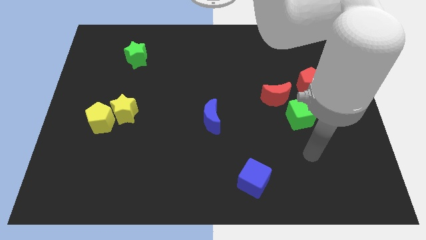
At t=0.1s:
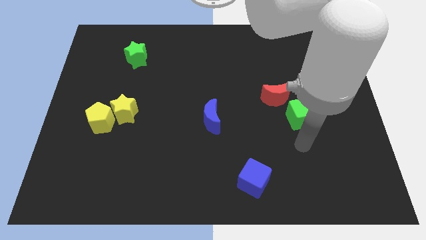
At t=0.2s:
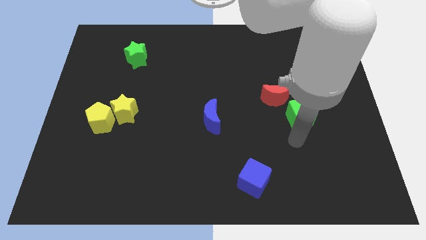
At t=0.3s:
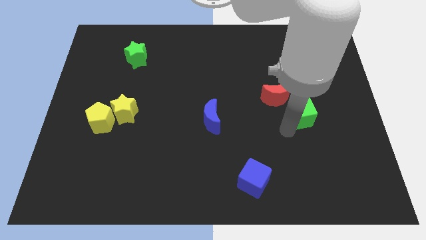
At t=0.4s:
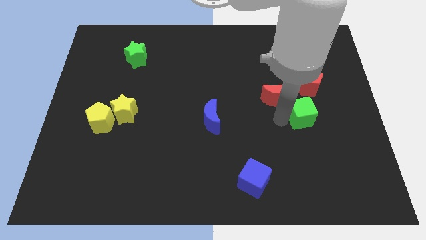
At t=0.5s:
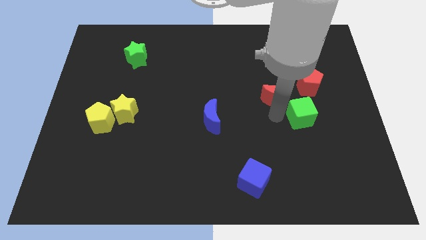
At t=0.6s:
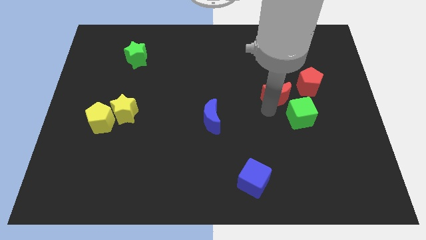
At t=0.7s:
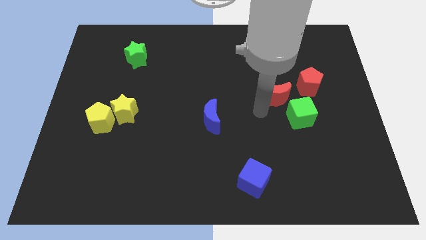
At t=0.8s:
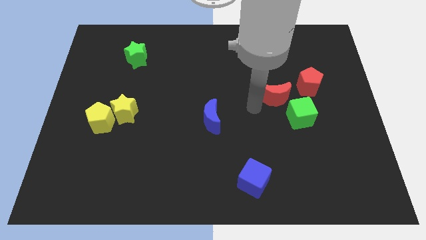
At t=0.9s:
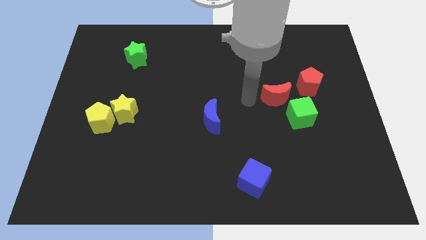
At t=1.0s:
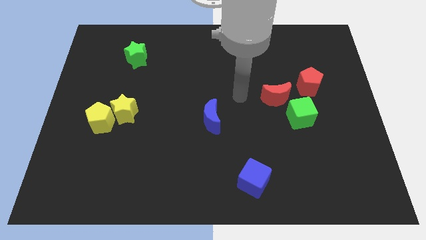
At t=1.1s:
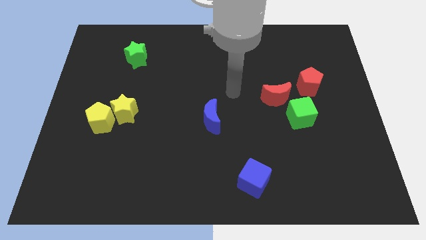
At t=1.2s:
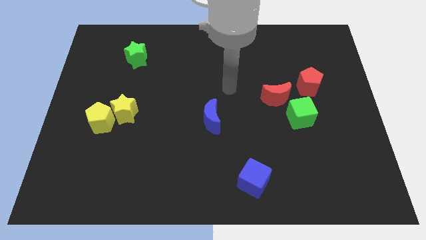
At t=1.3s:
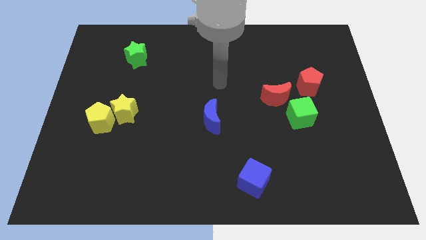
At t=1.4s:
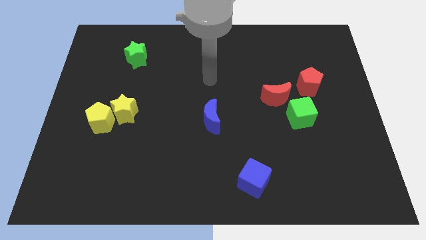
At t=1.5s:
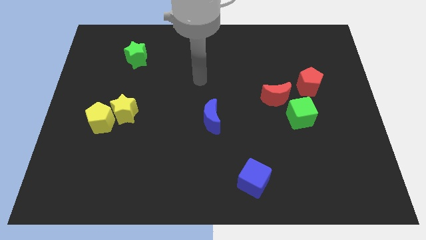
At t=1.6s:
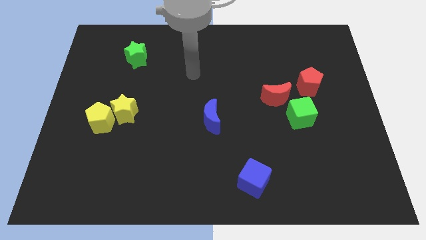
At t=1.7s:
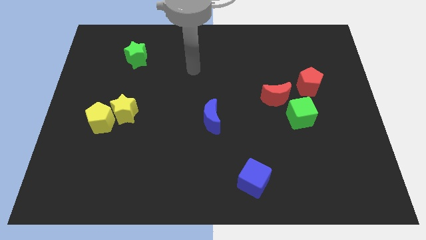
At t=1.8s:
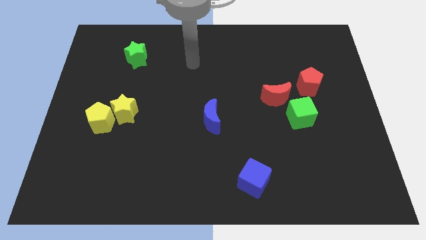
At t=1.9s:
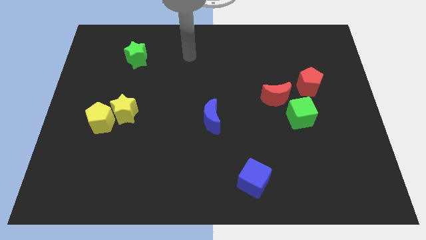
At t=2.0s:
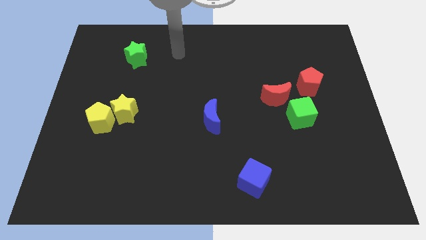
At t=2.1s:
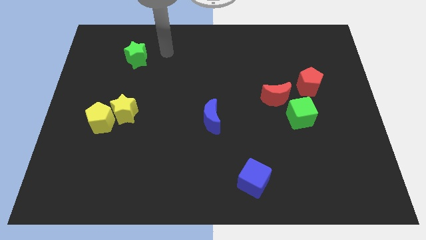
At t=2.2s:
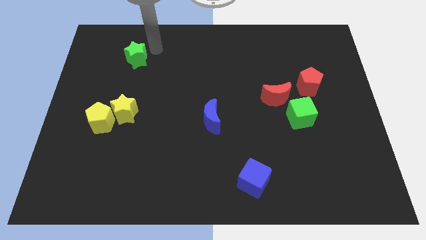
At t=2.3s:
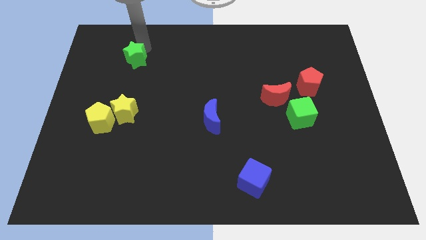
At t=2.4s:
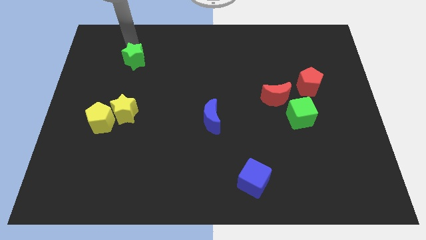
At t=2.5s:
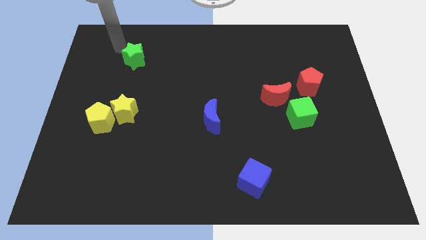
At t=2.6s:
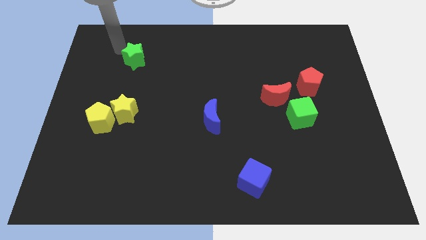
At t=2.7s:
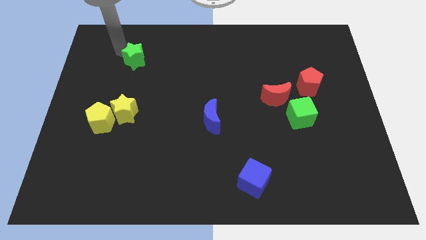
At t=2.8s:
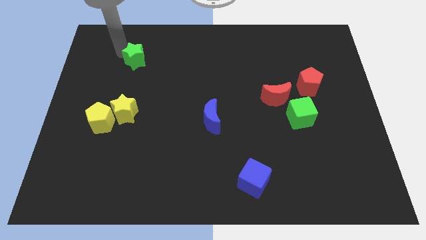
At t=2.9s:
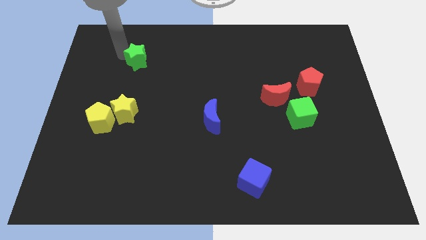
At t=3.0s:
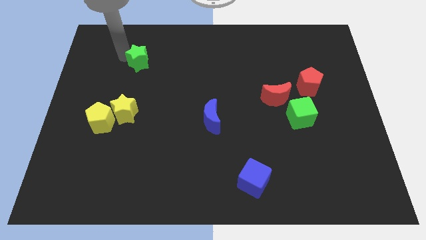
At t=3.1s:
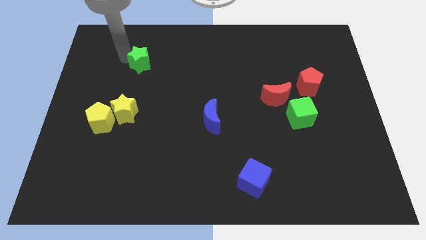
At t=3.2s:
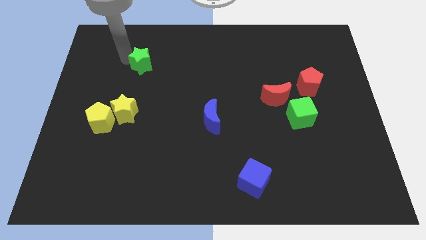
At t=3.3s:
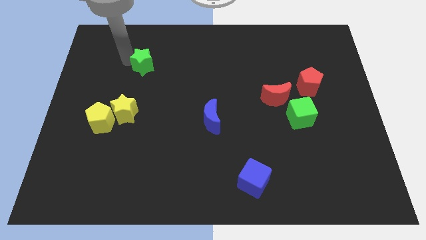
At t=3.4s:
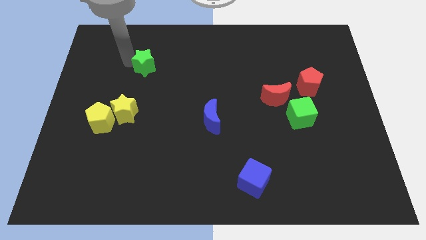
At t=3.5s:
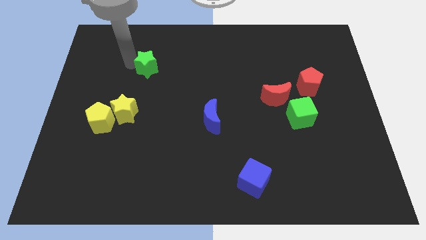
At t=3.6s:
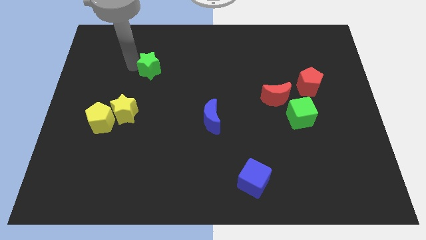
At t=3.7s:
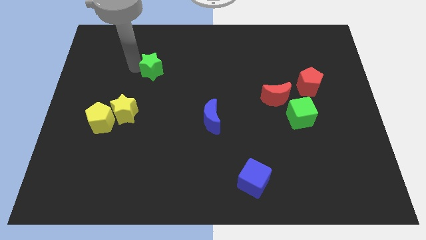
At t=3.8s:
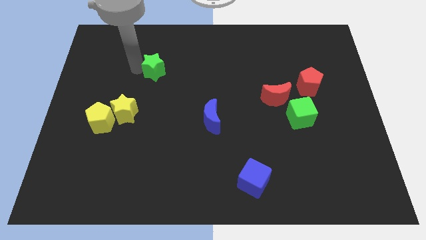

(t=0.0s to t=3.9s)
move the green star down and right a little

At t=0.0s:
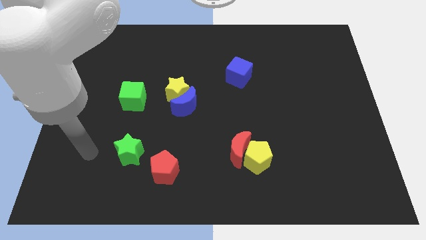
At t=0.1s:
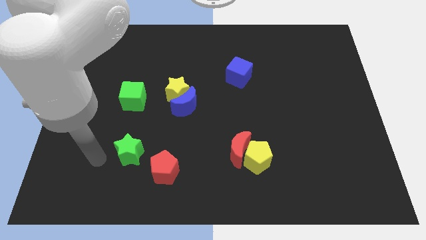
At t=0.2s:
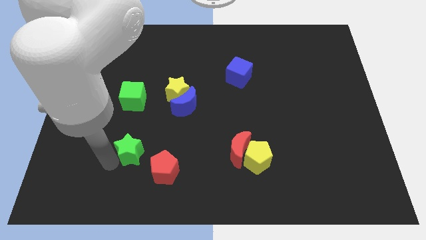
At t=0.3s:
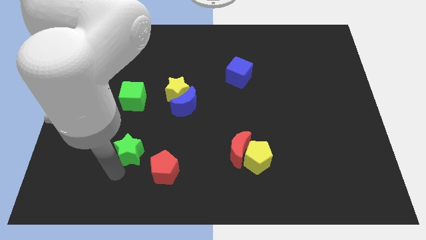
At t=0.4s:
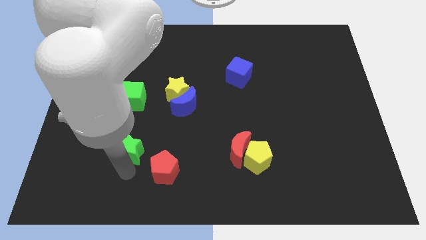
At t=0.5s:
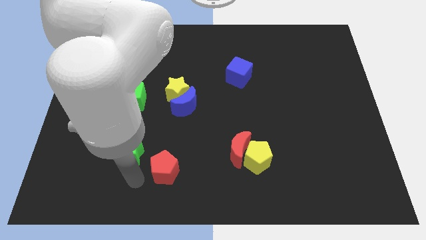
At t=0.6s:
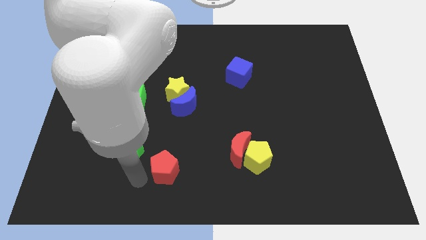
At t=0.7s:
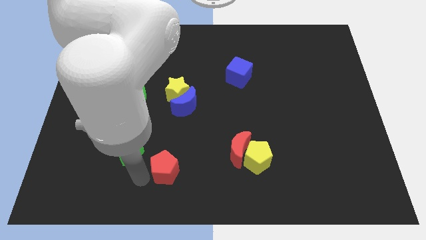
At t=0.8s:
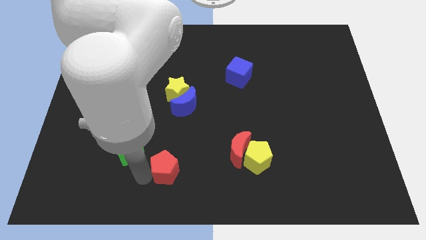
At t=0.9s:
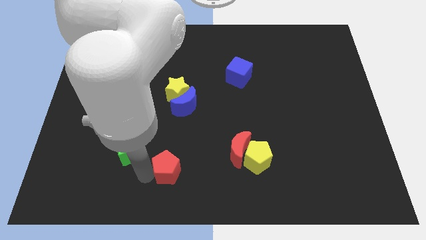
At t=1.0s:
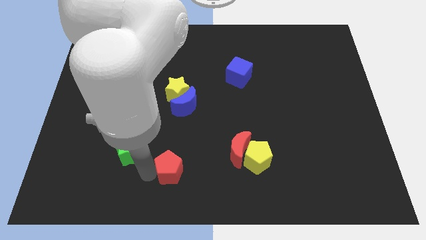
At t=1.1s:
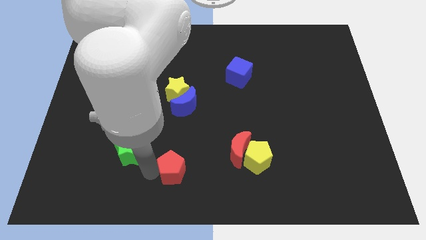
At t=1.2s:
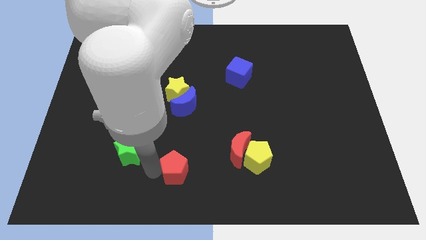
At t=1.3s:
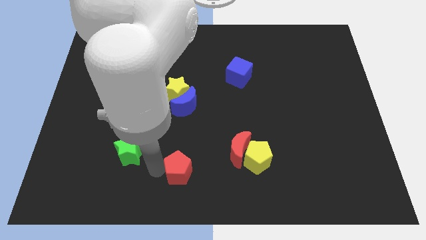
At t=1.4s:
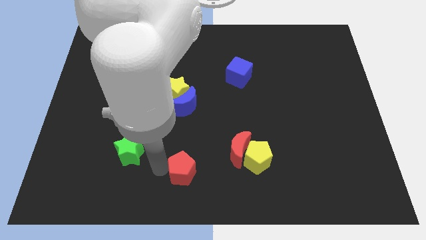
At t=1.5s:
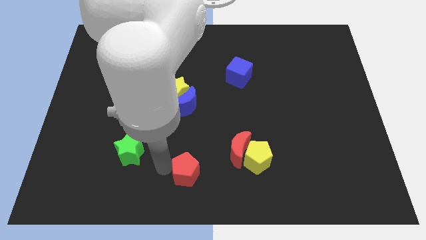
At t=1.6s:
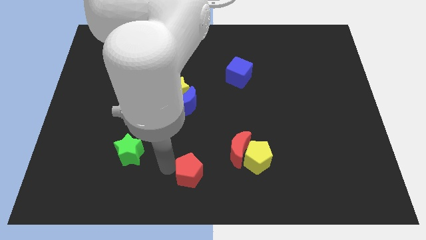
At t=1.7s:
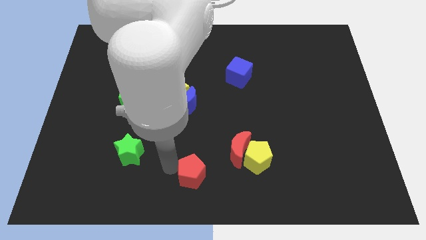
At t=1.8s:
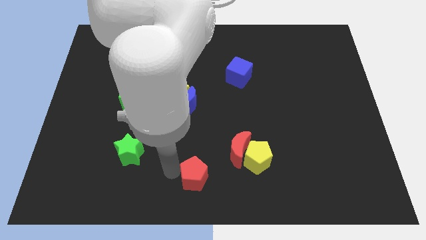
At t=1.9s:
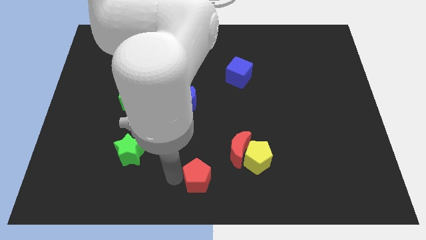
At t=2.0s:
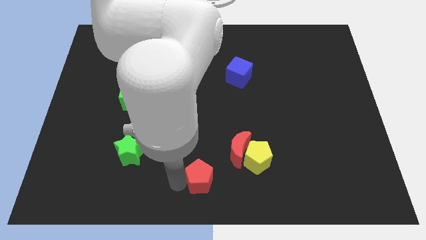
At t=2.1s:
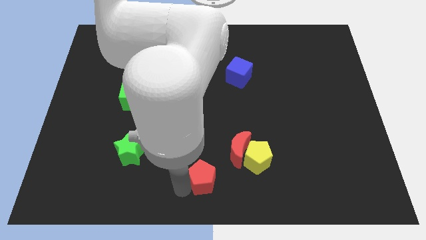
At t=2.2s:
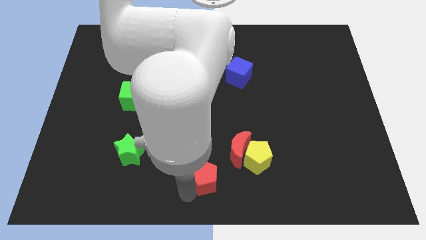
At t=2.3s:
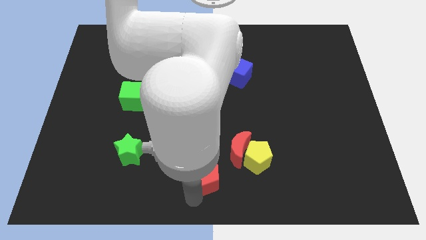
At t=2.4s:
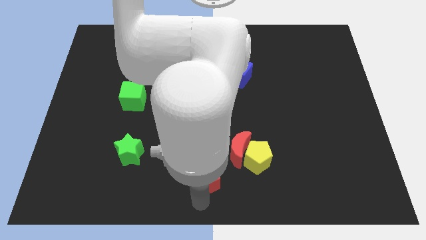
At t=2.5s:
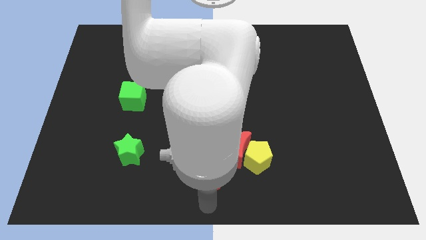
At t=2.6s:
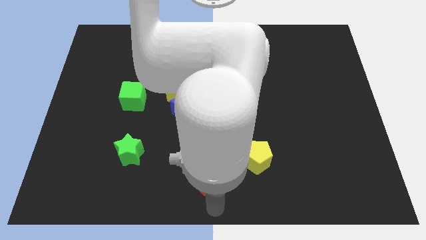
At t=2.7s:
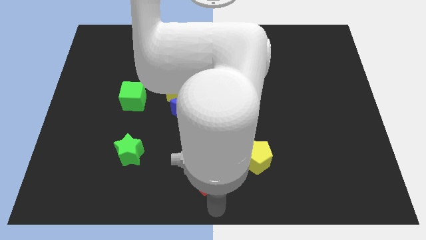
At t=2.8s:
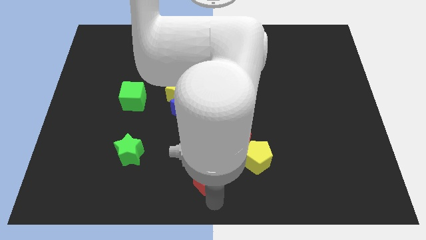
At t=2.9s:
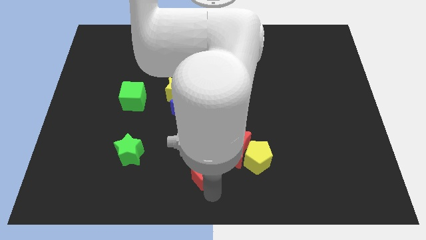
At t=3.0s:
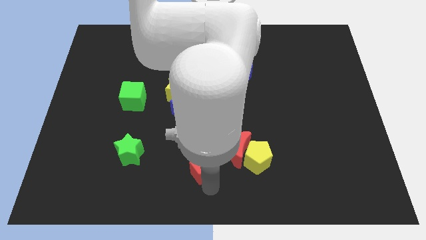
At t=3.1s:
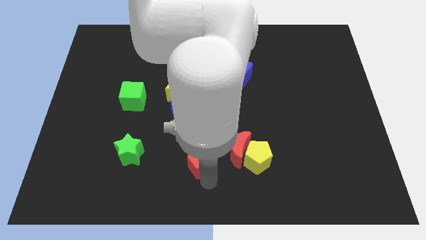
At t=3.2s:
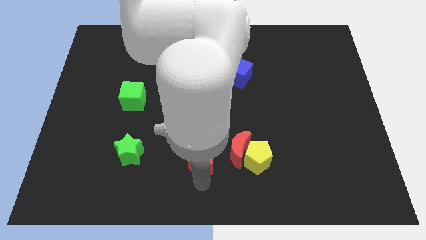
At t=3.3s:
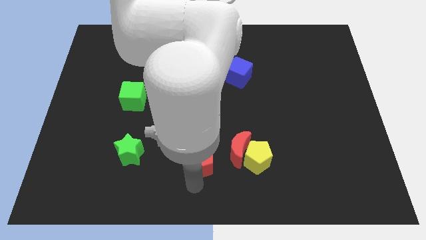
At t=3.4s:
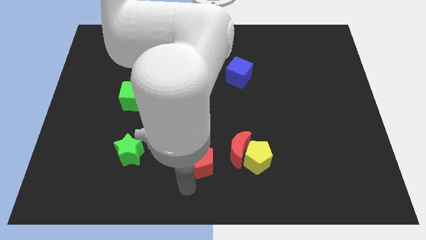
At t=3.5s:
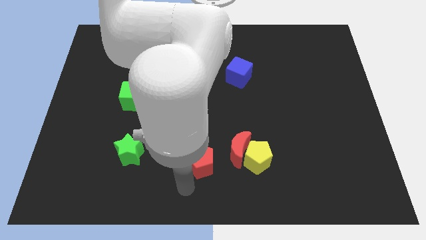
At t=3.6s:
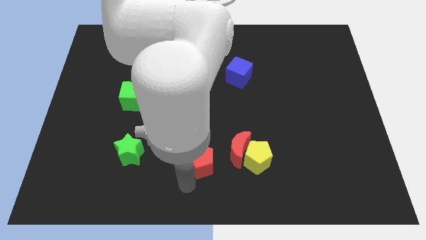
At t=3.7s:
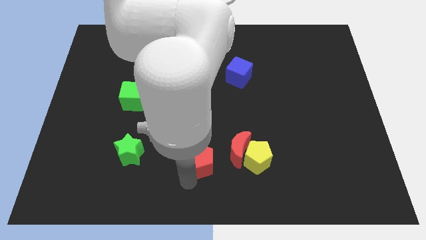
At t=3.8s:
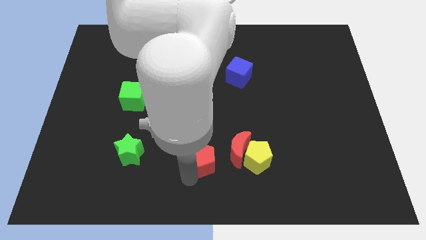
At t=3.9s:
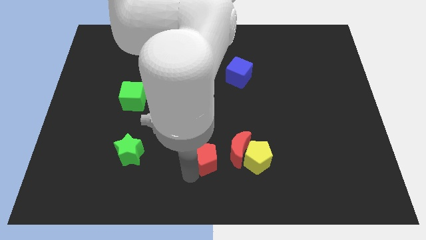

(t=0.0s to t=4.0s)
slide the red pentagon upwards and then to the right slightly

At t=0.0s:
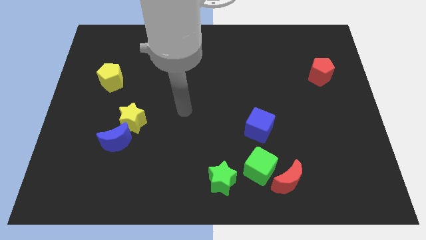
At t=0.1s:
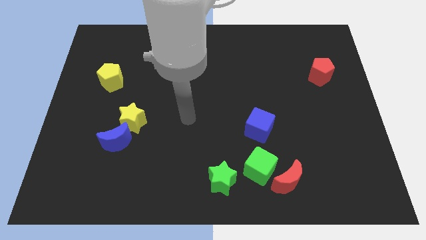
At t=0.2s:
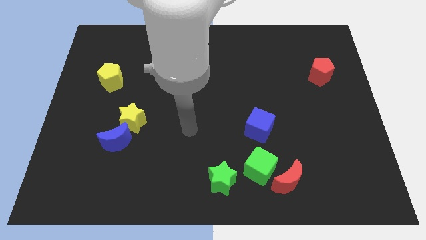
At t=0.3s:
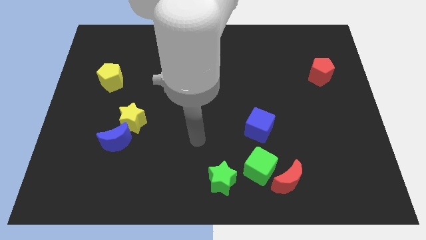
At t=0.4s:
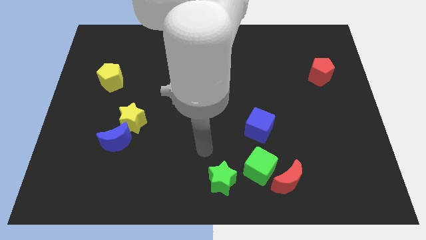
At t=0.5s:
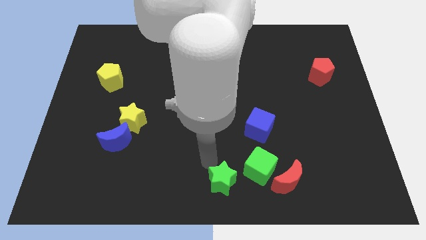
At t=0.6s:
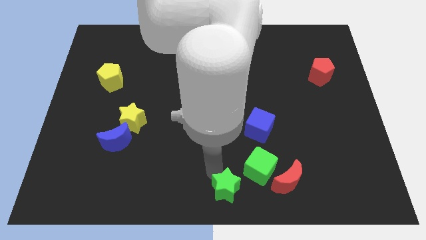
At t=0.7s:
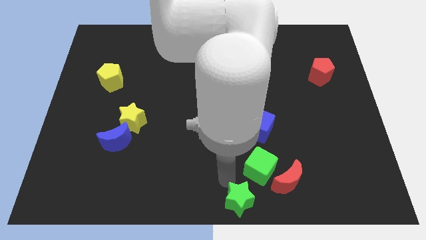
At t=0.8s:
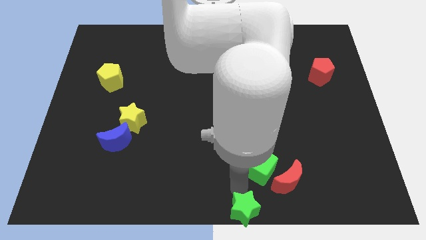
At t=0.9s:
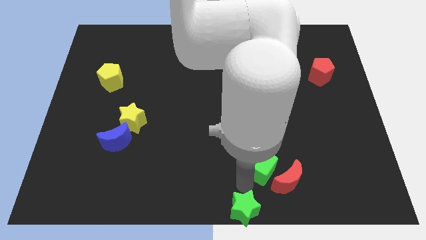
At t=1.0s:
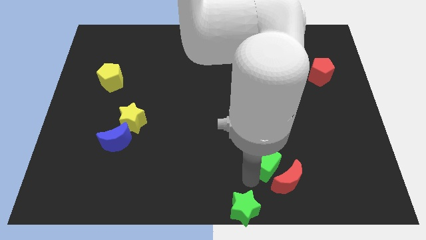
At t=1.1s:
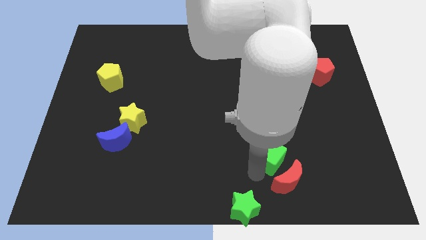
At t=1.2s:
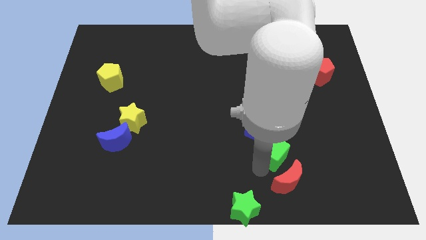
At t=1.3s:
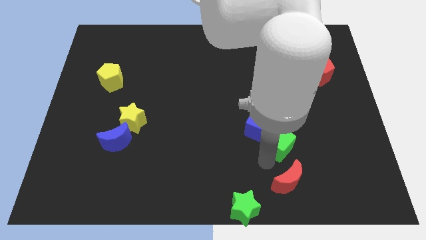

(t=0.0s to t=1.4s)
slightly move the green cube upwards and to the right diagonally
